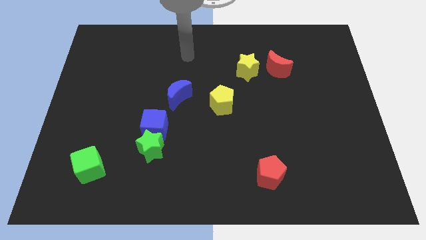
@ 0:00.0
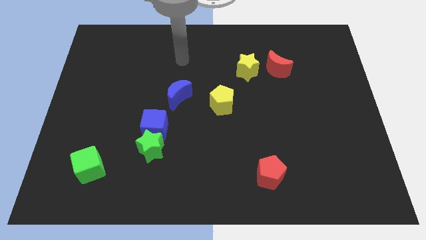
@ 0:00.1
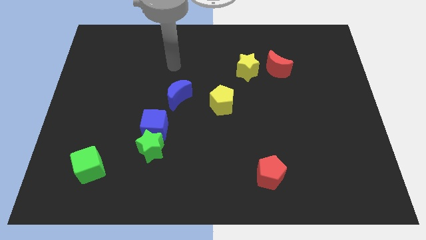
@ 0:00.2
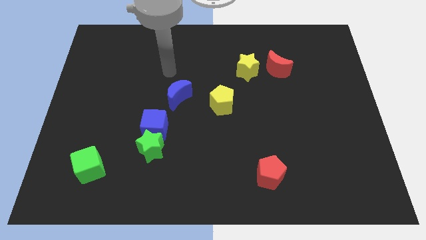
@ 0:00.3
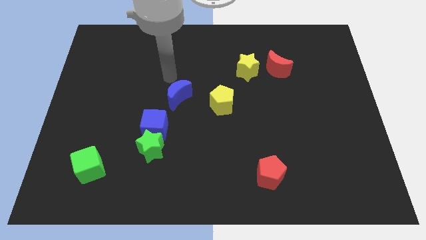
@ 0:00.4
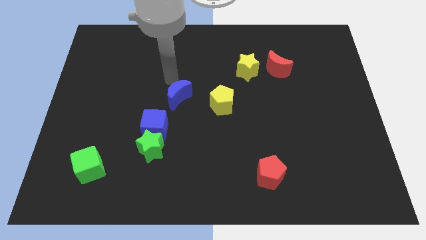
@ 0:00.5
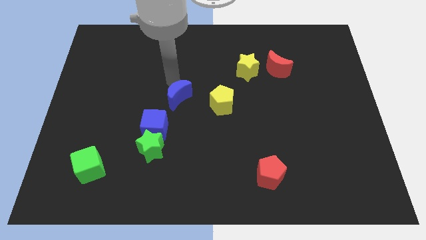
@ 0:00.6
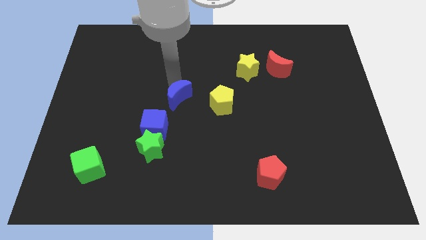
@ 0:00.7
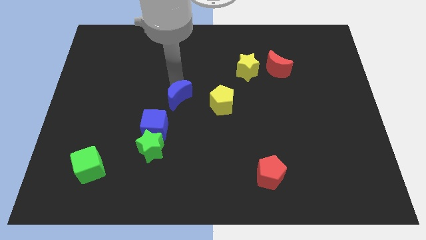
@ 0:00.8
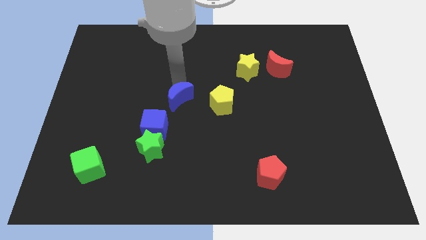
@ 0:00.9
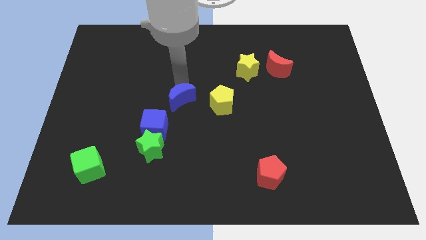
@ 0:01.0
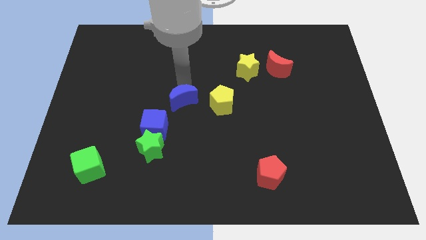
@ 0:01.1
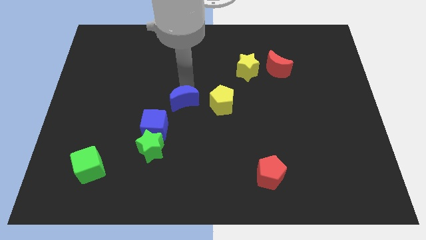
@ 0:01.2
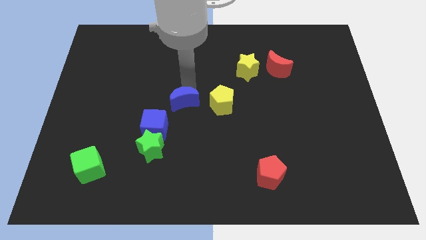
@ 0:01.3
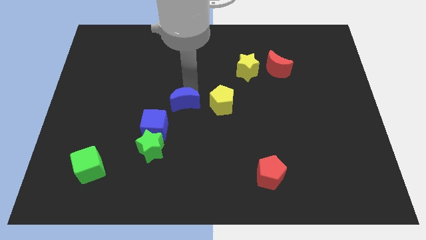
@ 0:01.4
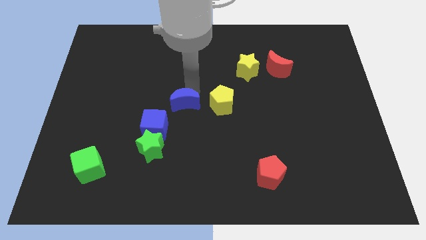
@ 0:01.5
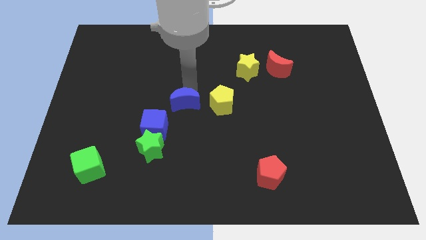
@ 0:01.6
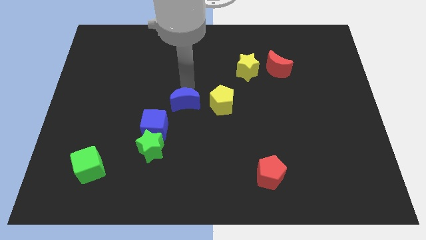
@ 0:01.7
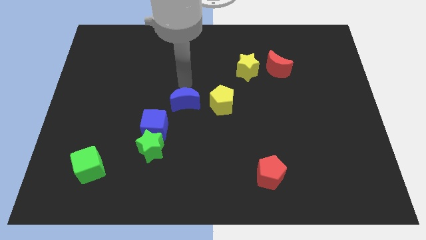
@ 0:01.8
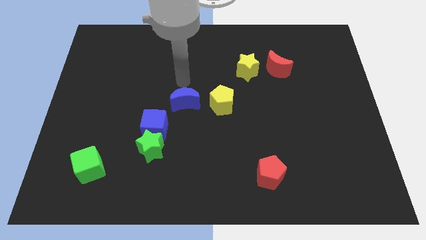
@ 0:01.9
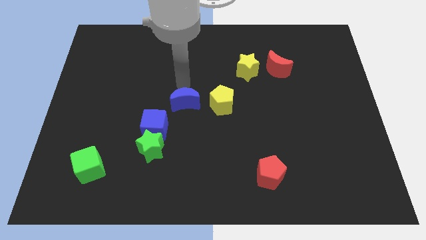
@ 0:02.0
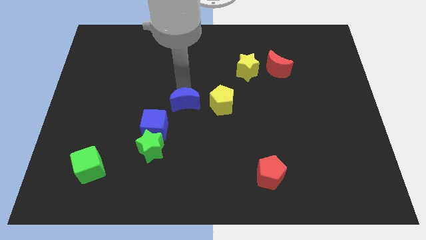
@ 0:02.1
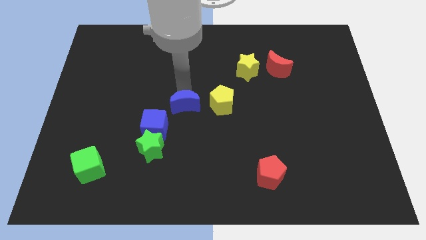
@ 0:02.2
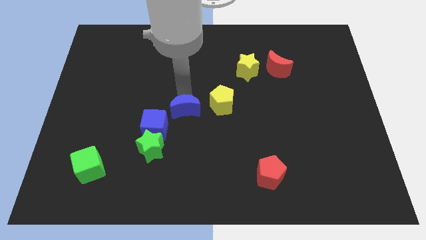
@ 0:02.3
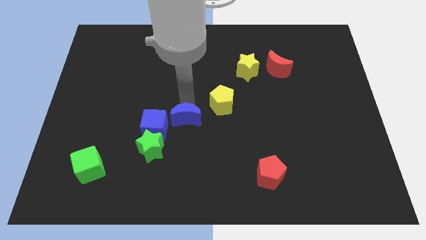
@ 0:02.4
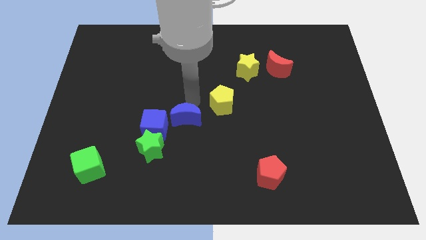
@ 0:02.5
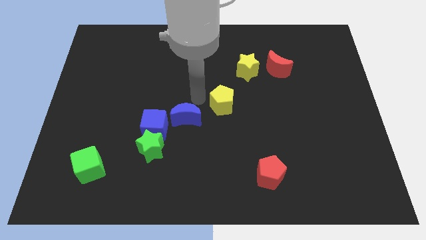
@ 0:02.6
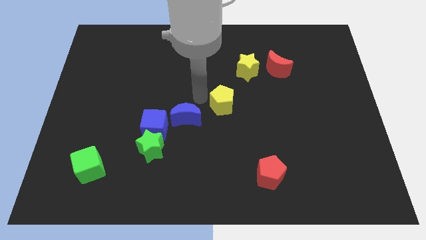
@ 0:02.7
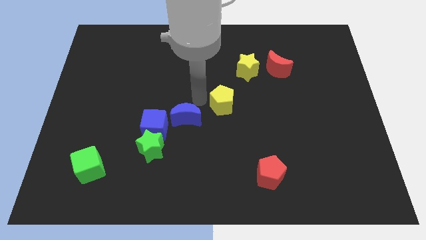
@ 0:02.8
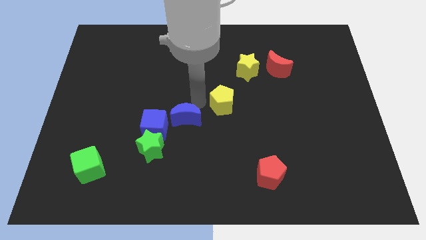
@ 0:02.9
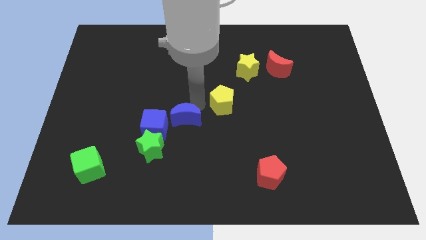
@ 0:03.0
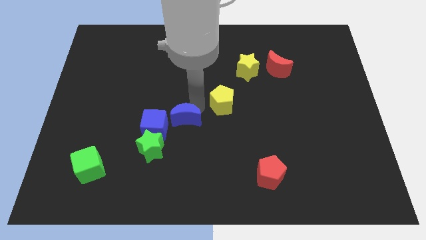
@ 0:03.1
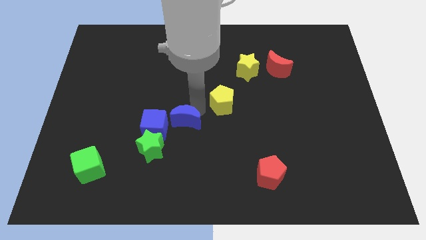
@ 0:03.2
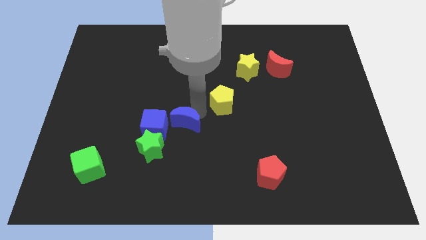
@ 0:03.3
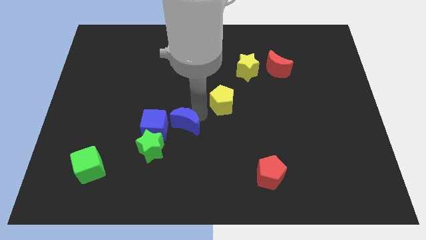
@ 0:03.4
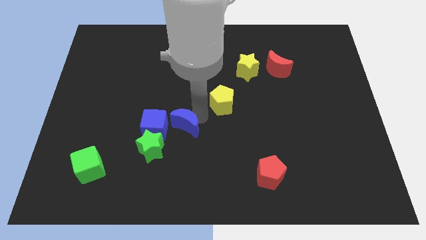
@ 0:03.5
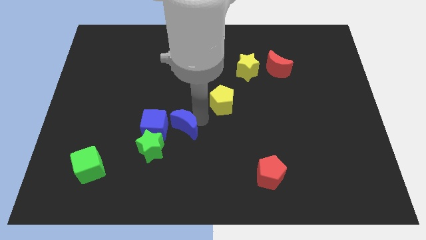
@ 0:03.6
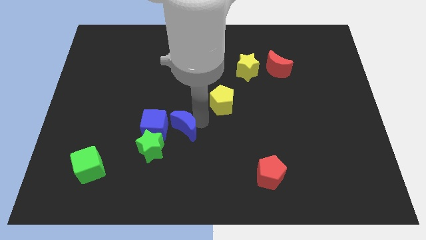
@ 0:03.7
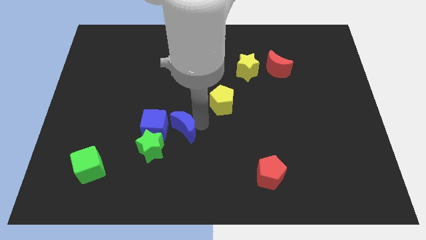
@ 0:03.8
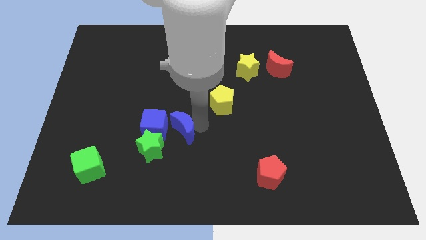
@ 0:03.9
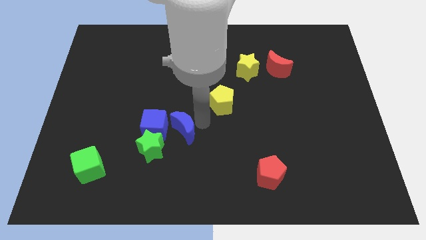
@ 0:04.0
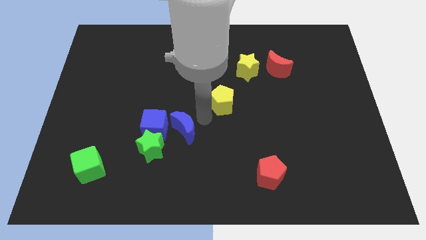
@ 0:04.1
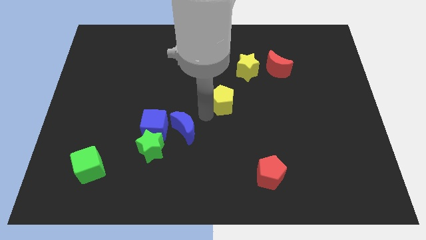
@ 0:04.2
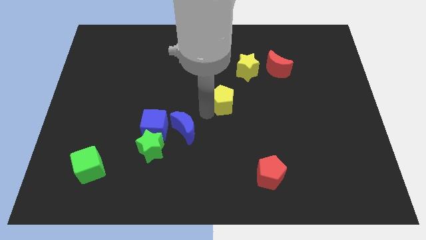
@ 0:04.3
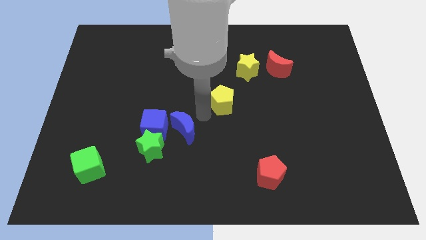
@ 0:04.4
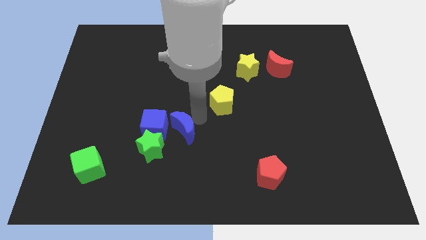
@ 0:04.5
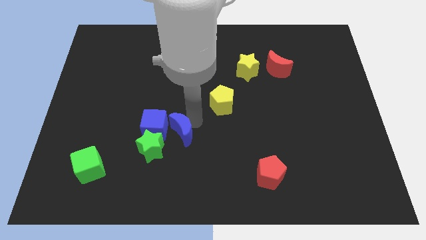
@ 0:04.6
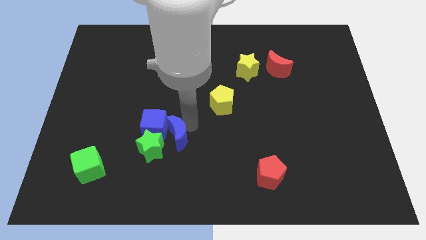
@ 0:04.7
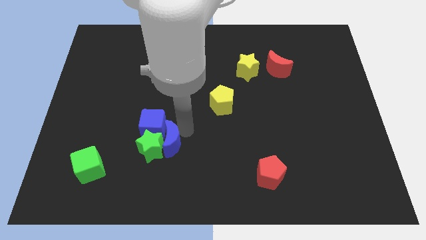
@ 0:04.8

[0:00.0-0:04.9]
push the blue moon close to the green star

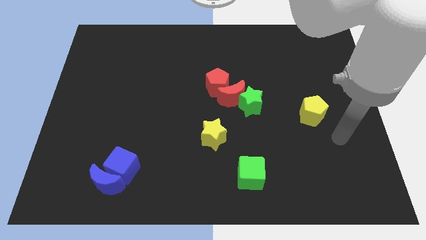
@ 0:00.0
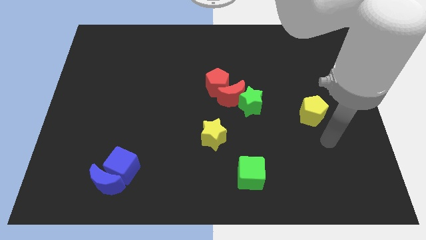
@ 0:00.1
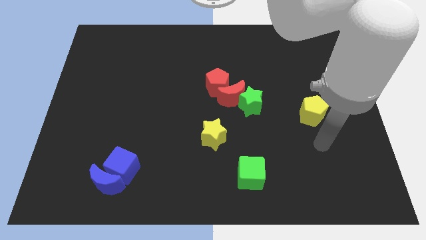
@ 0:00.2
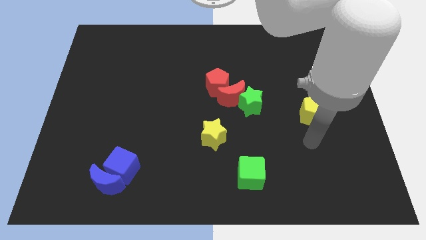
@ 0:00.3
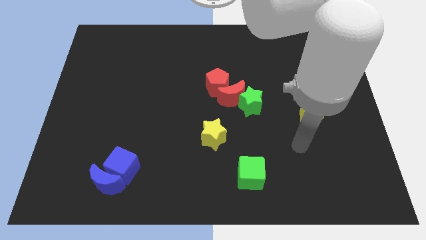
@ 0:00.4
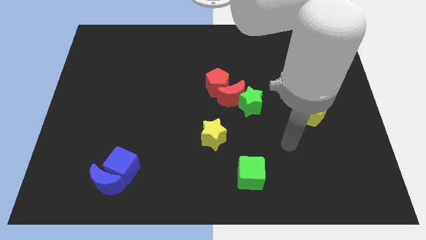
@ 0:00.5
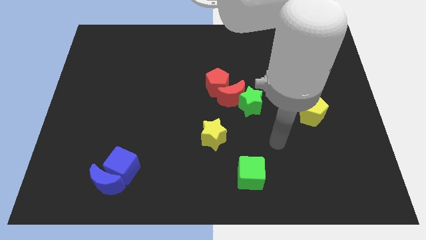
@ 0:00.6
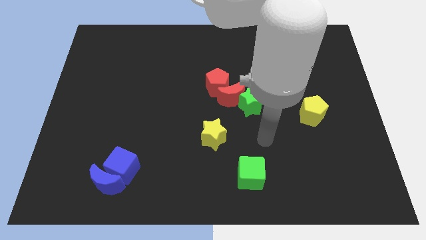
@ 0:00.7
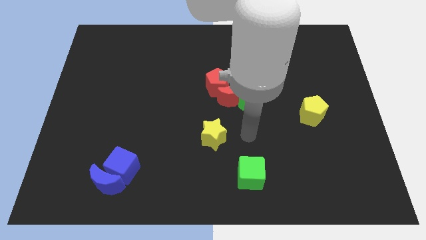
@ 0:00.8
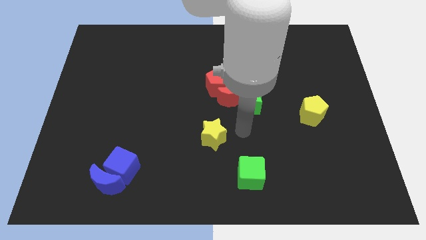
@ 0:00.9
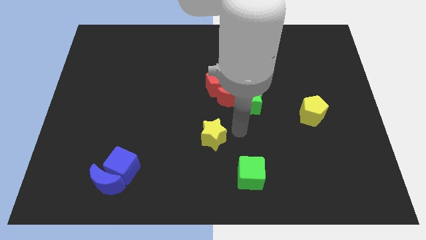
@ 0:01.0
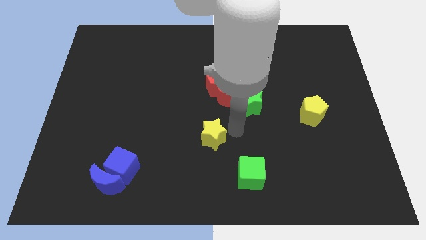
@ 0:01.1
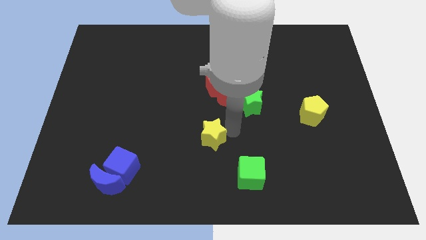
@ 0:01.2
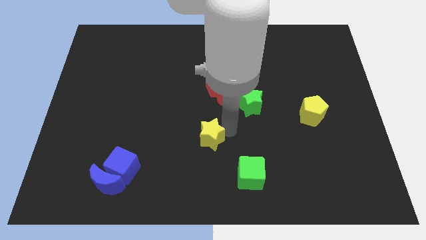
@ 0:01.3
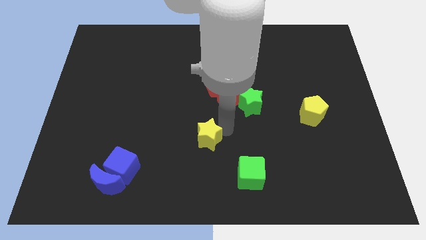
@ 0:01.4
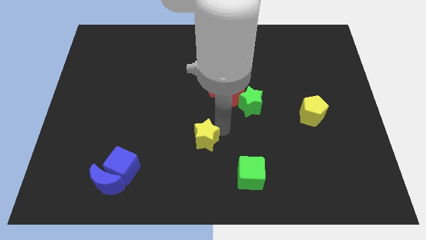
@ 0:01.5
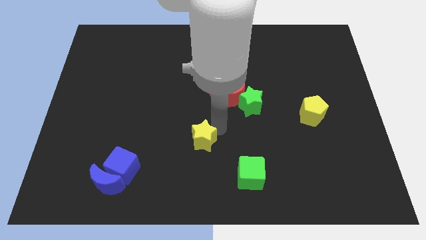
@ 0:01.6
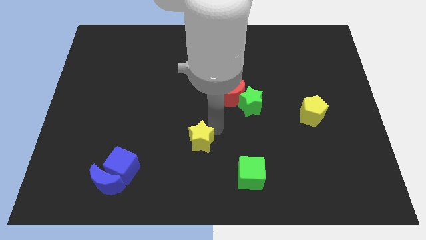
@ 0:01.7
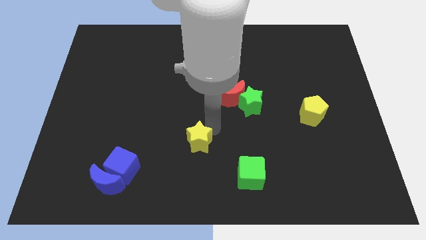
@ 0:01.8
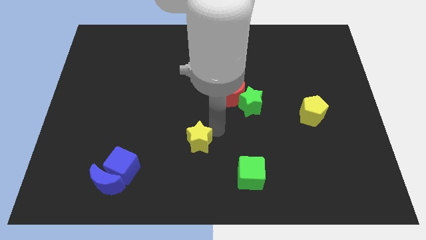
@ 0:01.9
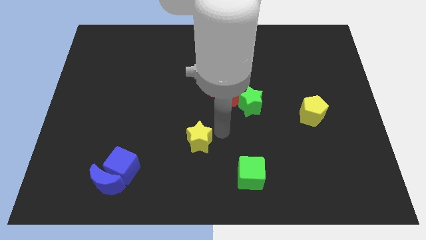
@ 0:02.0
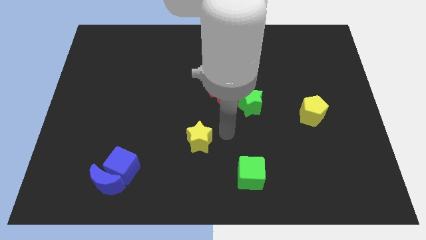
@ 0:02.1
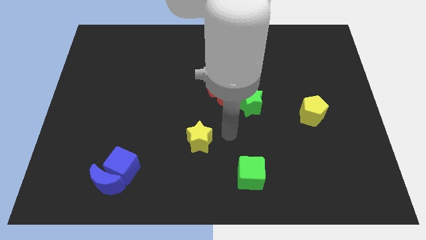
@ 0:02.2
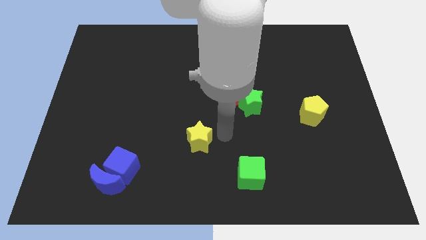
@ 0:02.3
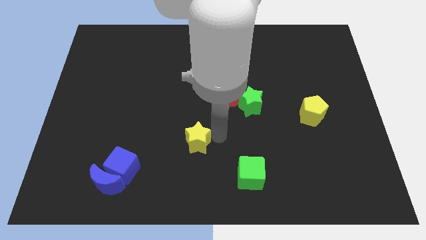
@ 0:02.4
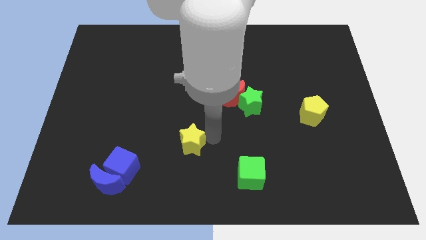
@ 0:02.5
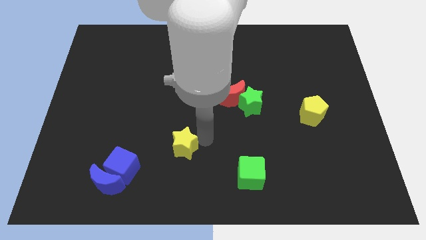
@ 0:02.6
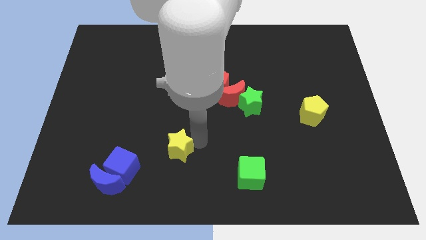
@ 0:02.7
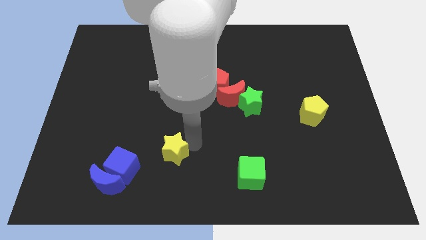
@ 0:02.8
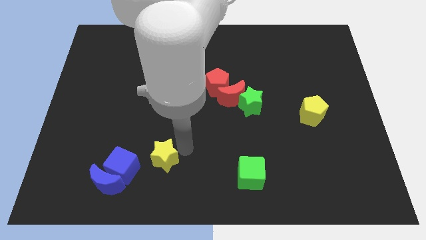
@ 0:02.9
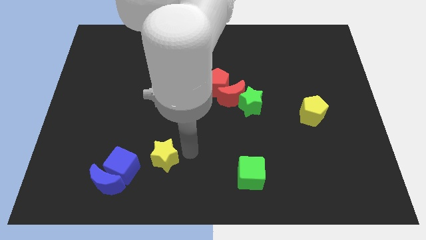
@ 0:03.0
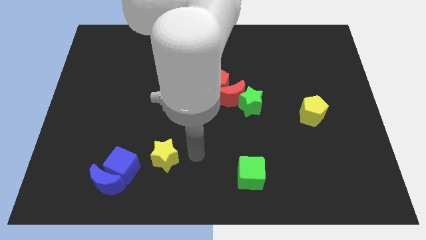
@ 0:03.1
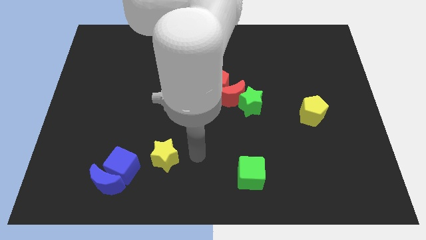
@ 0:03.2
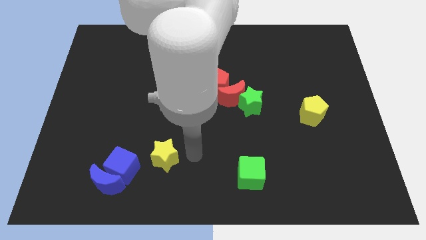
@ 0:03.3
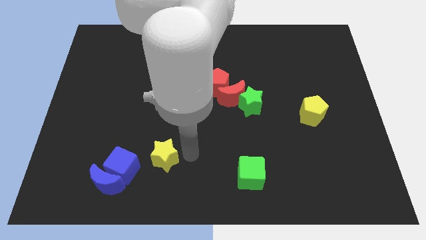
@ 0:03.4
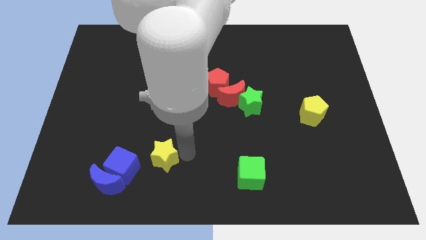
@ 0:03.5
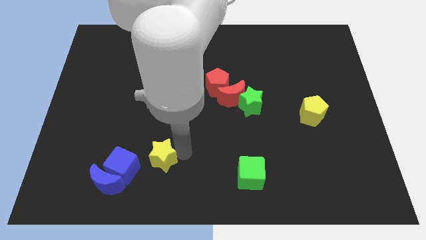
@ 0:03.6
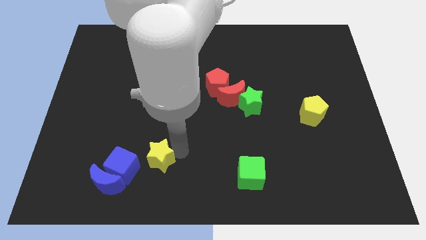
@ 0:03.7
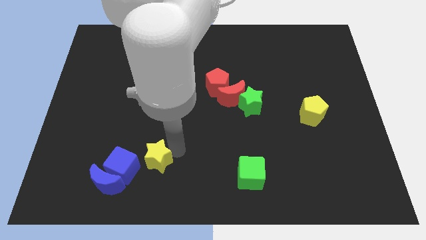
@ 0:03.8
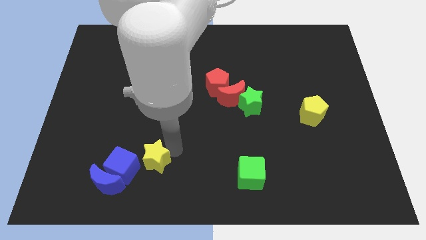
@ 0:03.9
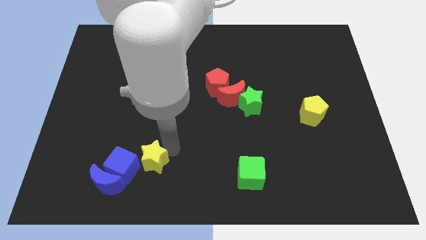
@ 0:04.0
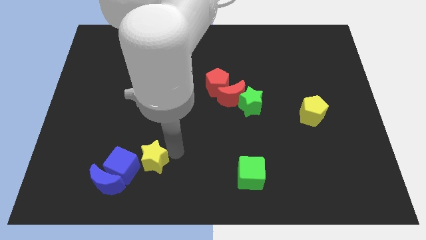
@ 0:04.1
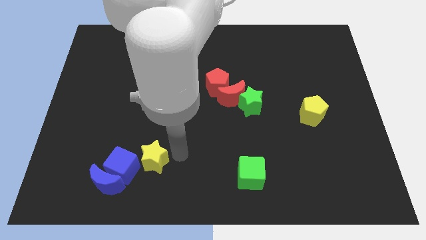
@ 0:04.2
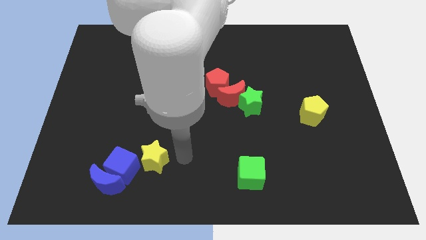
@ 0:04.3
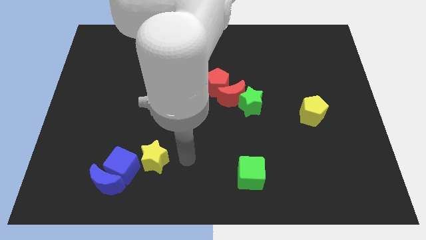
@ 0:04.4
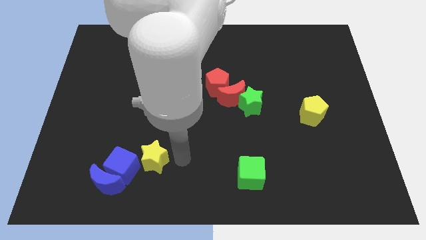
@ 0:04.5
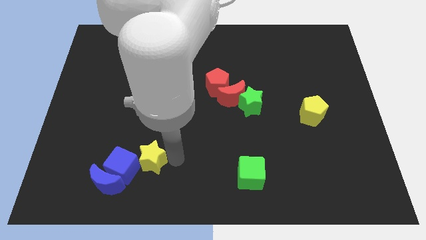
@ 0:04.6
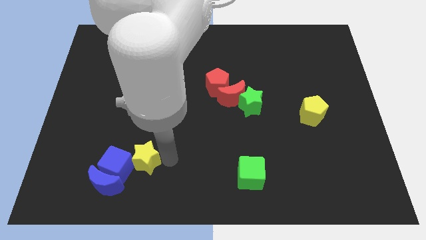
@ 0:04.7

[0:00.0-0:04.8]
push the yellow star to the blue cube
